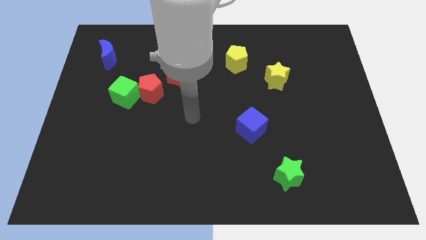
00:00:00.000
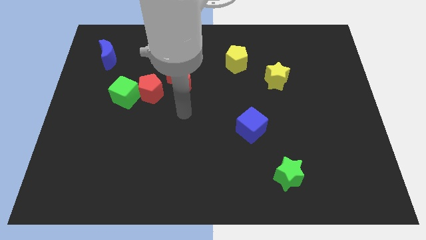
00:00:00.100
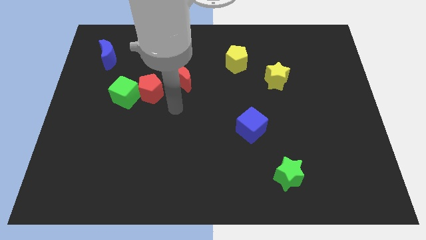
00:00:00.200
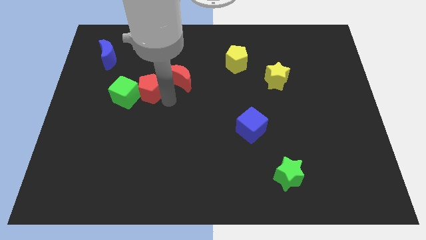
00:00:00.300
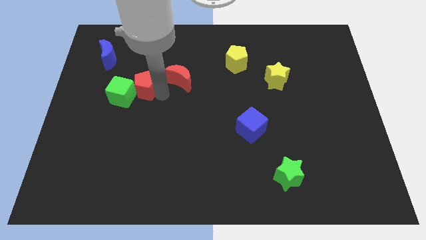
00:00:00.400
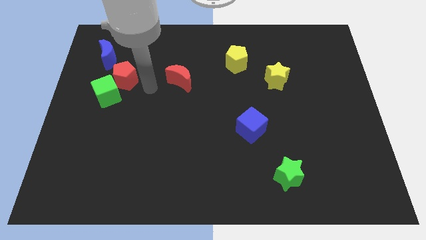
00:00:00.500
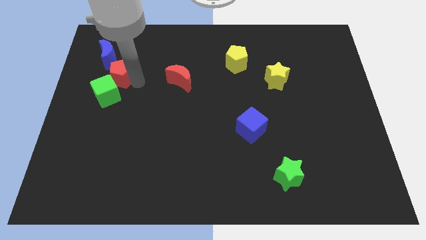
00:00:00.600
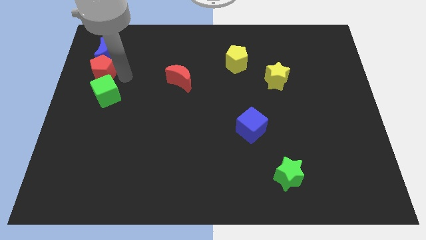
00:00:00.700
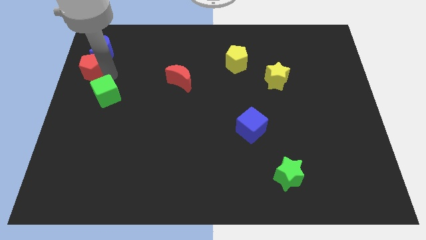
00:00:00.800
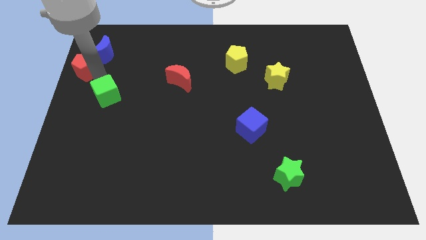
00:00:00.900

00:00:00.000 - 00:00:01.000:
move the green cube away from the red pentagon

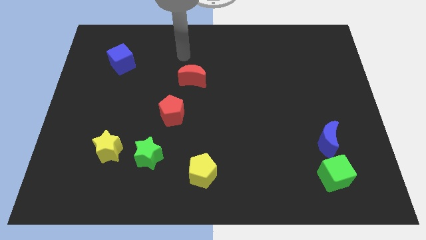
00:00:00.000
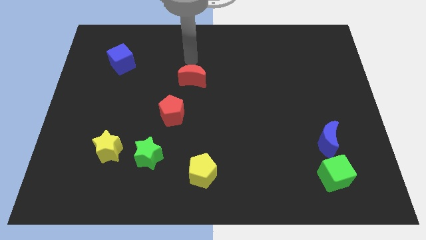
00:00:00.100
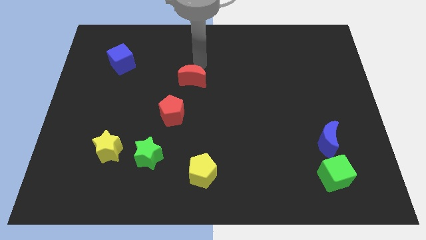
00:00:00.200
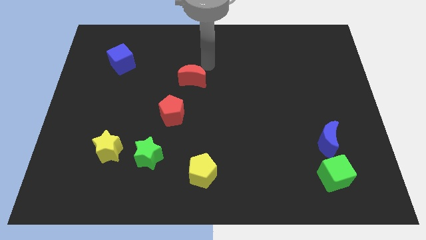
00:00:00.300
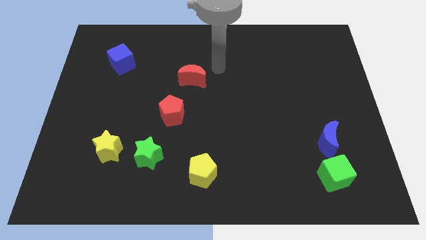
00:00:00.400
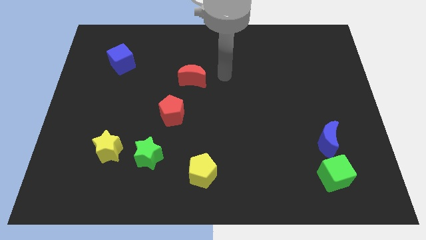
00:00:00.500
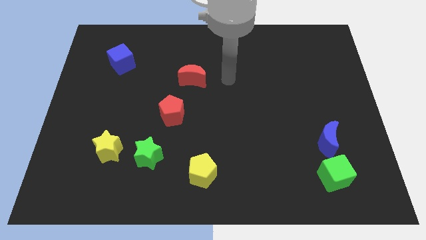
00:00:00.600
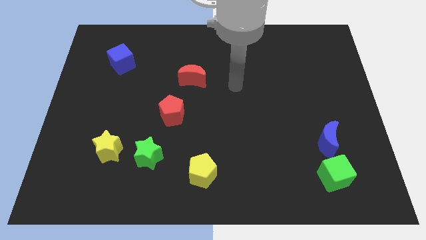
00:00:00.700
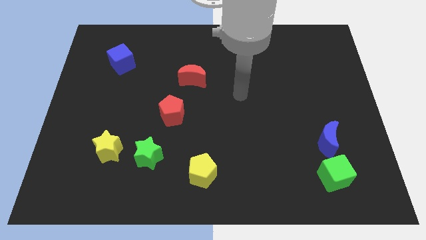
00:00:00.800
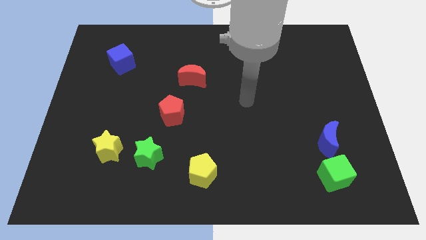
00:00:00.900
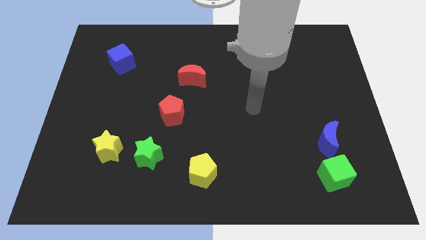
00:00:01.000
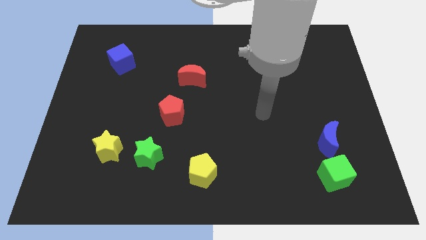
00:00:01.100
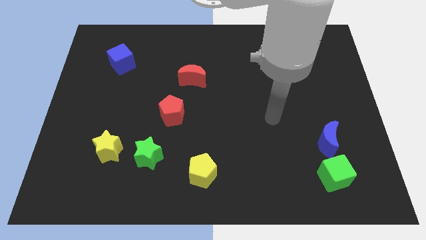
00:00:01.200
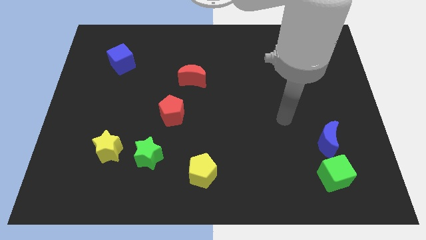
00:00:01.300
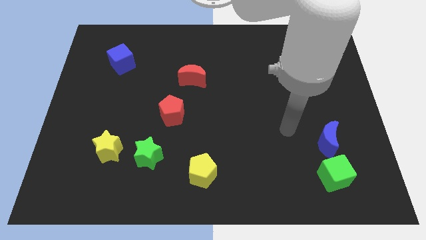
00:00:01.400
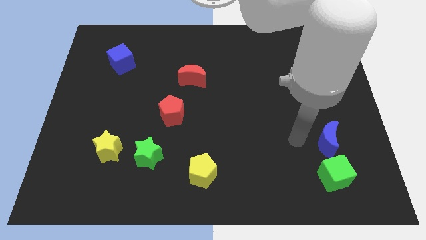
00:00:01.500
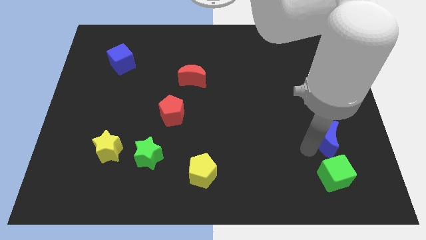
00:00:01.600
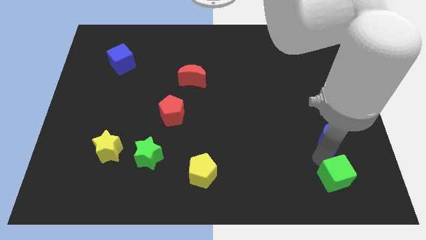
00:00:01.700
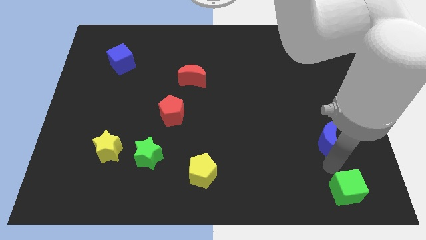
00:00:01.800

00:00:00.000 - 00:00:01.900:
pull the blue moon apart from the green cube

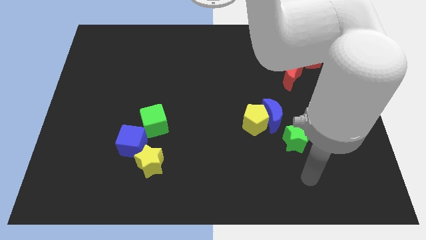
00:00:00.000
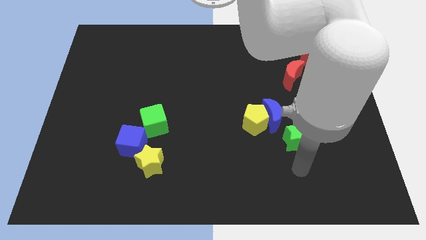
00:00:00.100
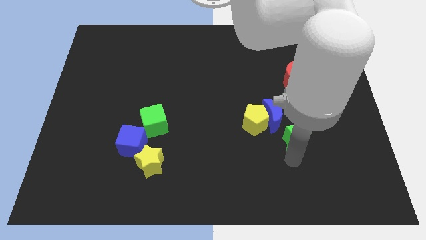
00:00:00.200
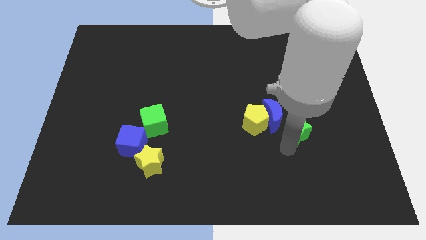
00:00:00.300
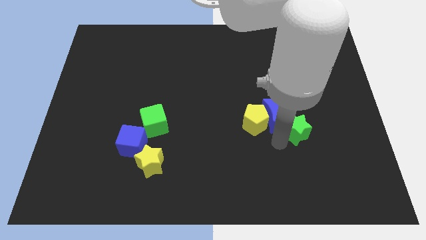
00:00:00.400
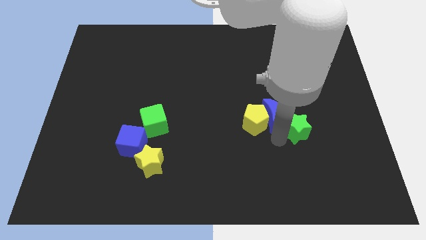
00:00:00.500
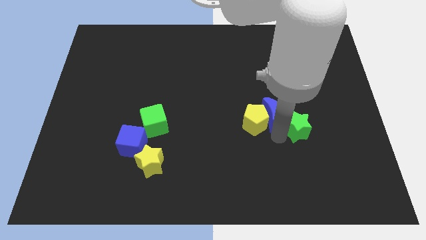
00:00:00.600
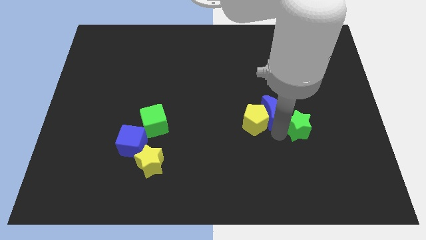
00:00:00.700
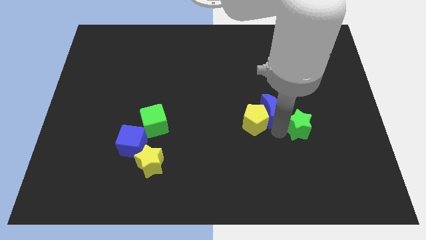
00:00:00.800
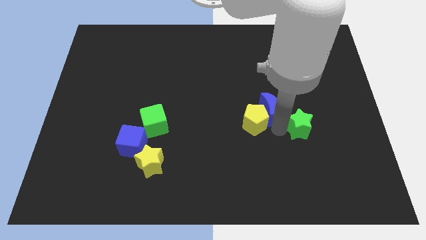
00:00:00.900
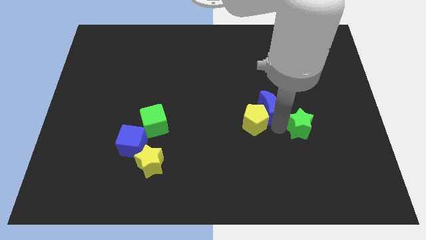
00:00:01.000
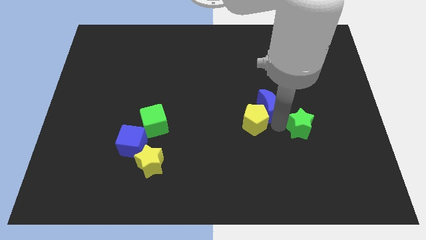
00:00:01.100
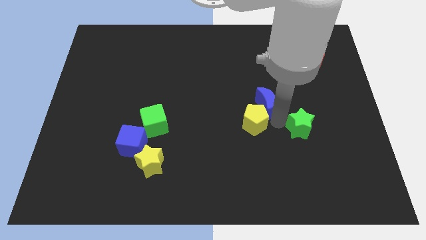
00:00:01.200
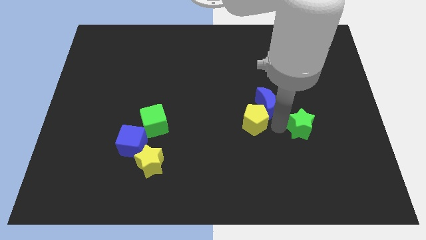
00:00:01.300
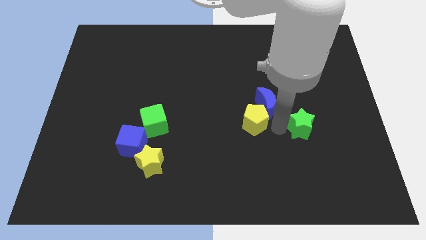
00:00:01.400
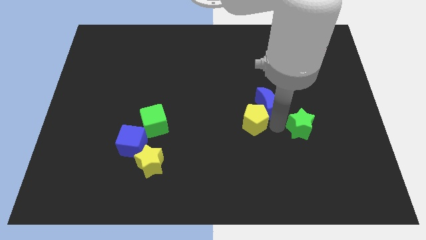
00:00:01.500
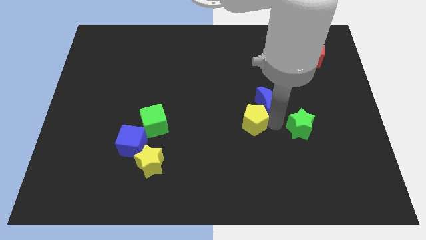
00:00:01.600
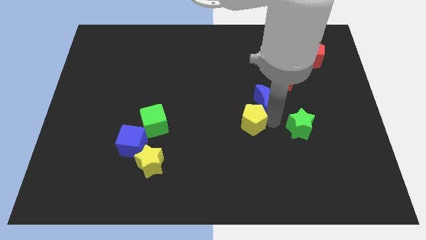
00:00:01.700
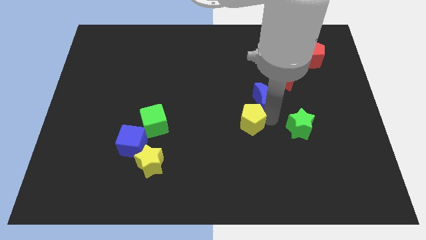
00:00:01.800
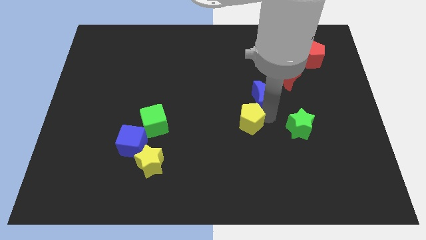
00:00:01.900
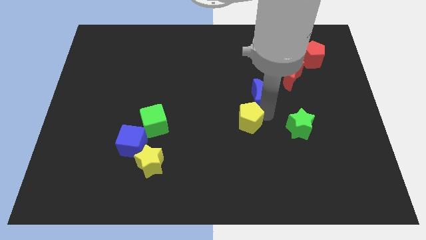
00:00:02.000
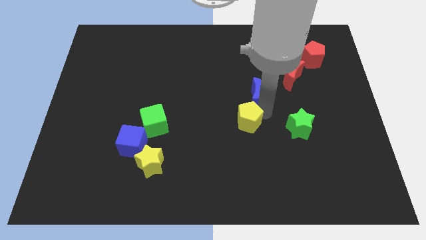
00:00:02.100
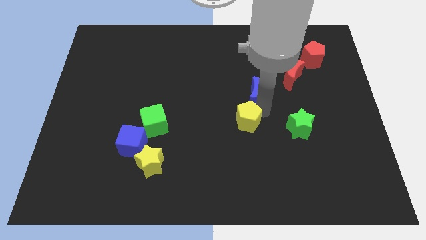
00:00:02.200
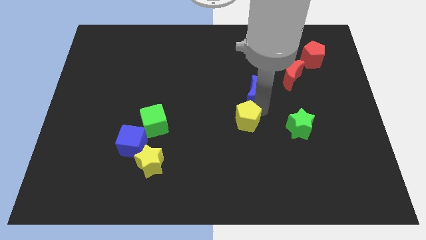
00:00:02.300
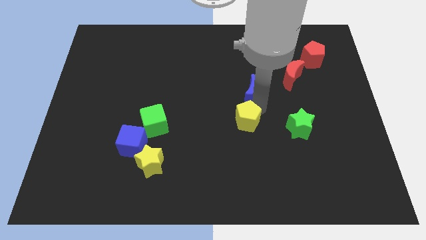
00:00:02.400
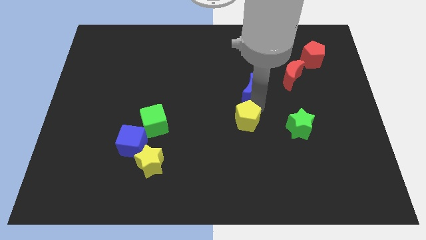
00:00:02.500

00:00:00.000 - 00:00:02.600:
pull the blue moon apart from the yellow pentagon and green star

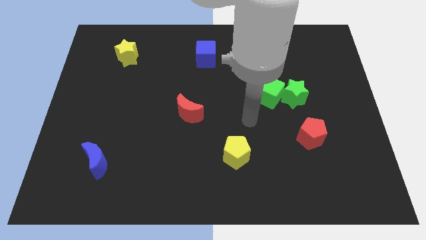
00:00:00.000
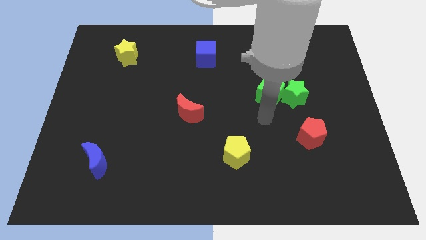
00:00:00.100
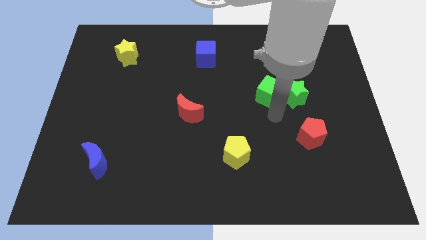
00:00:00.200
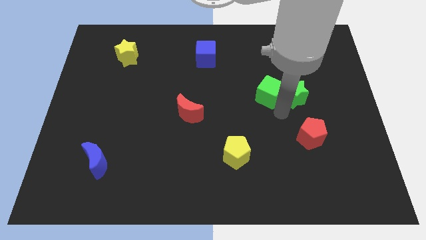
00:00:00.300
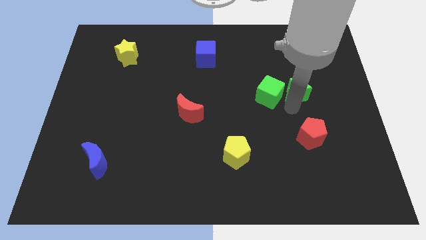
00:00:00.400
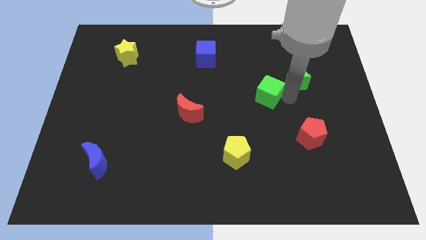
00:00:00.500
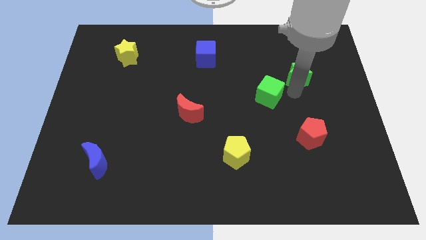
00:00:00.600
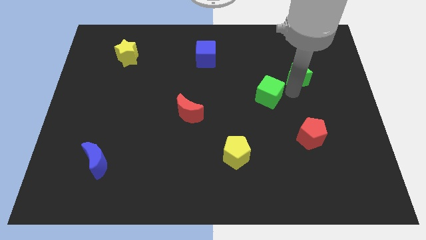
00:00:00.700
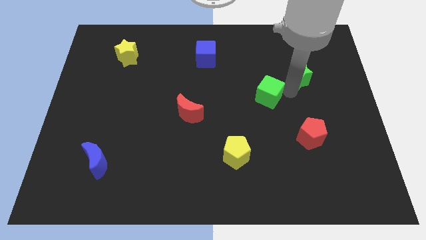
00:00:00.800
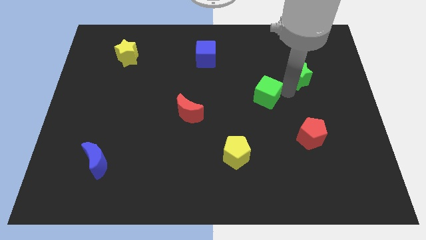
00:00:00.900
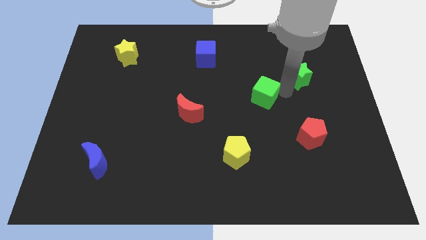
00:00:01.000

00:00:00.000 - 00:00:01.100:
separate the green cube from the green star

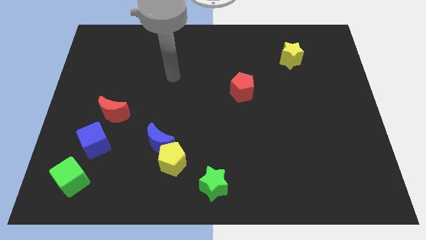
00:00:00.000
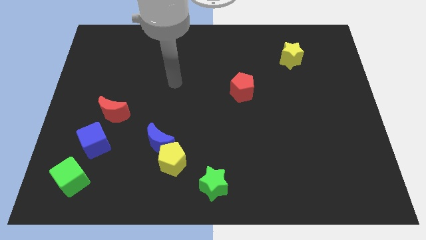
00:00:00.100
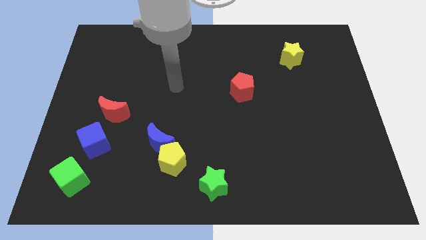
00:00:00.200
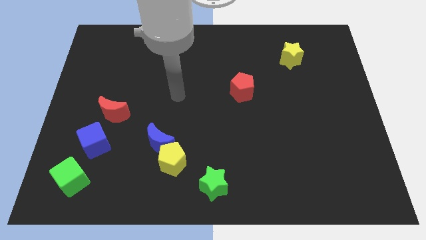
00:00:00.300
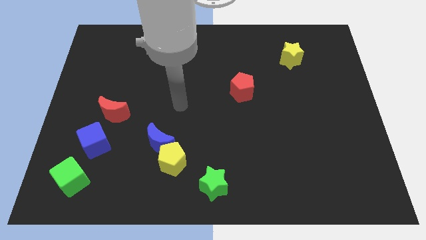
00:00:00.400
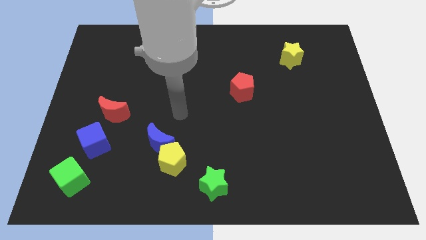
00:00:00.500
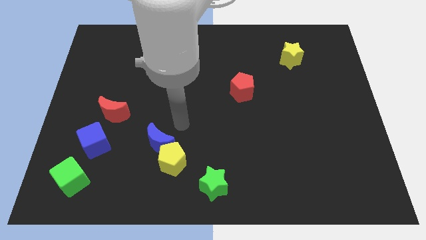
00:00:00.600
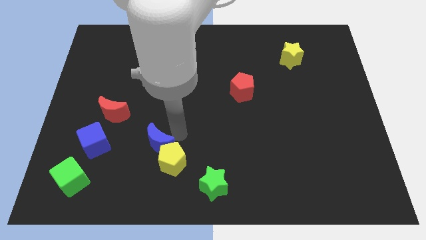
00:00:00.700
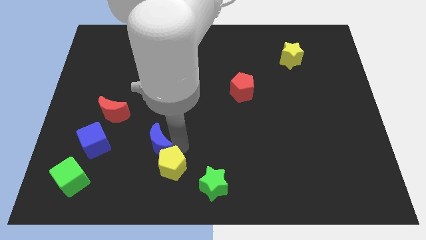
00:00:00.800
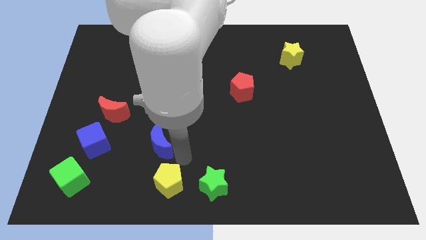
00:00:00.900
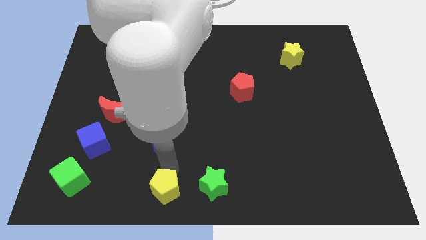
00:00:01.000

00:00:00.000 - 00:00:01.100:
separate the blue moon from the yellow pentagon

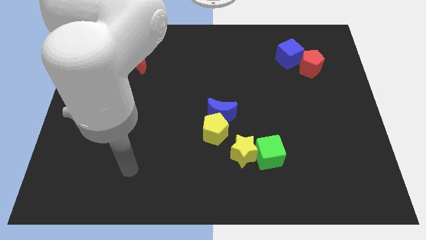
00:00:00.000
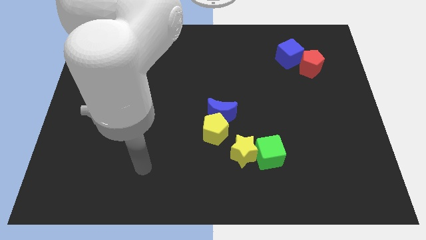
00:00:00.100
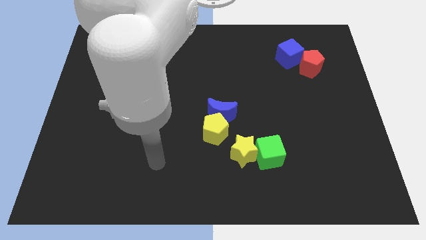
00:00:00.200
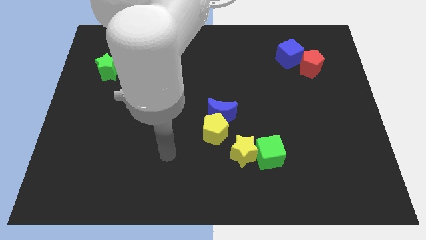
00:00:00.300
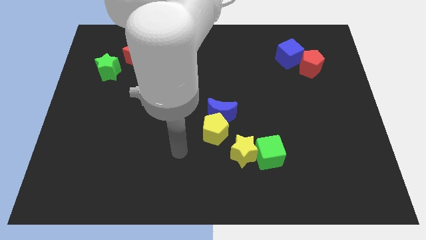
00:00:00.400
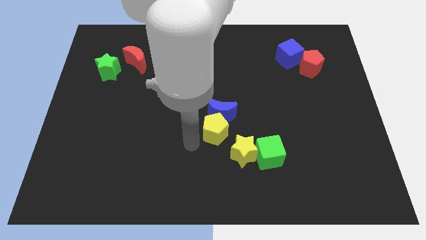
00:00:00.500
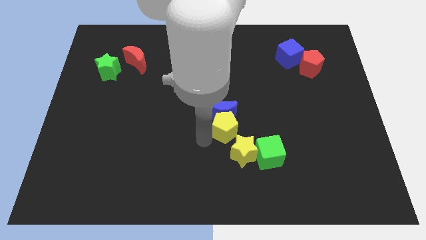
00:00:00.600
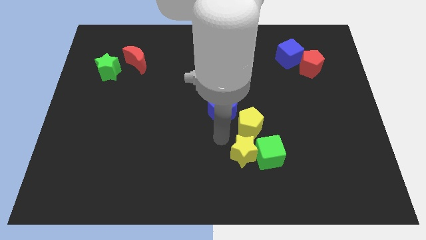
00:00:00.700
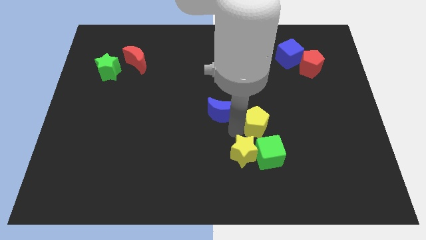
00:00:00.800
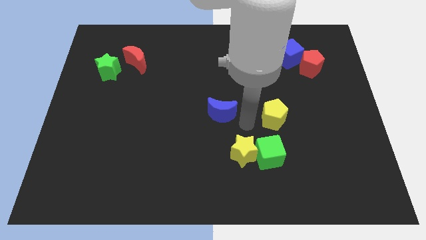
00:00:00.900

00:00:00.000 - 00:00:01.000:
move the blue moon away from the yellow pentagon

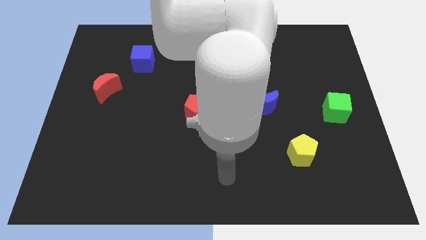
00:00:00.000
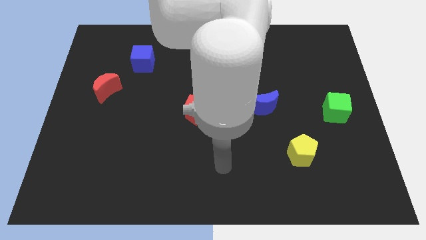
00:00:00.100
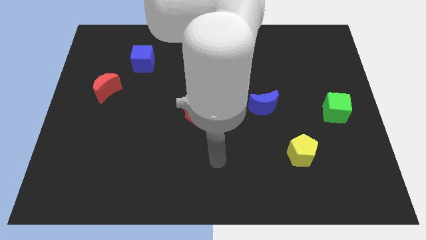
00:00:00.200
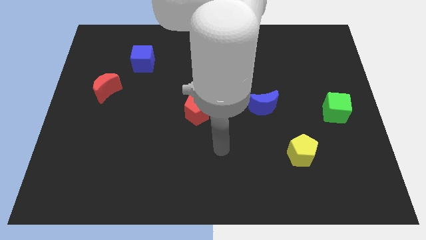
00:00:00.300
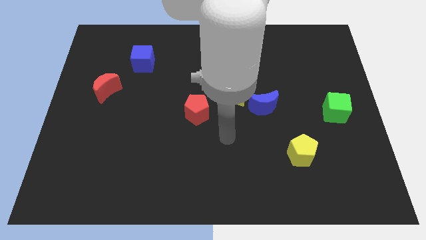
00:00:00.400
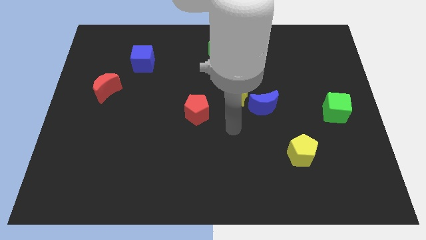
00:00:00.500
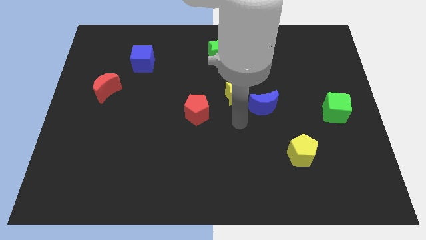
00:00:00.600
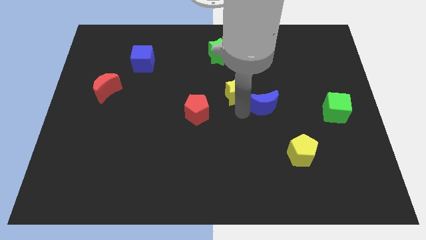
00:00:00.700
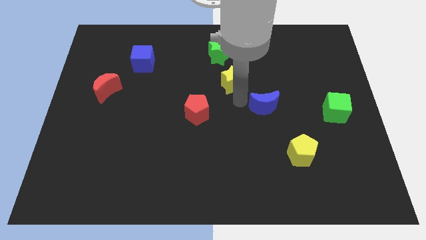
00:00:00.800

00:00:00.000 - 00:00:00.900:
pull the blue moon apart from the yellow star
